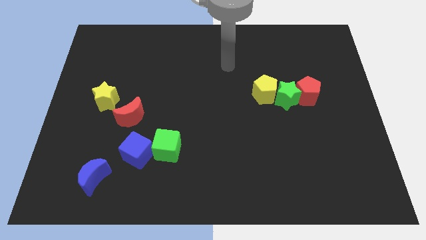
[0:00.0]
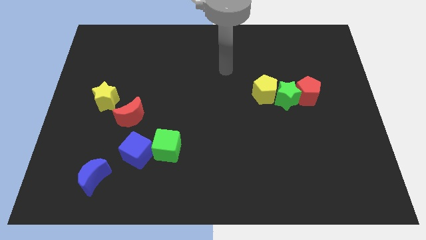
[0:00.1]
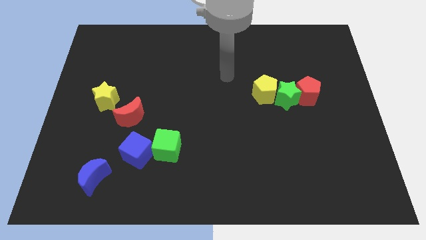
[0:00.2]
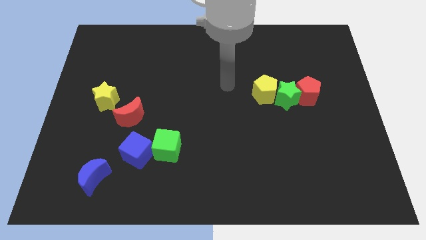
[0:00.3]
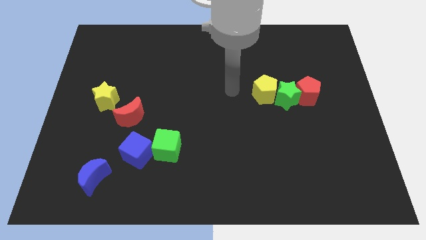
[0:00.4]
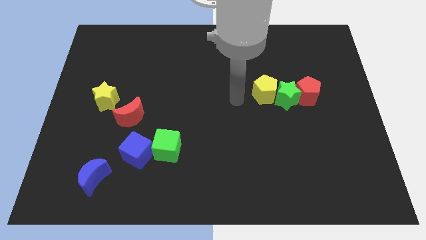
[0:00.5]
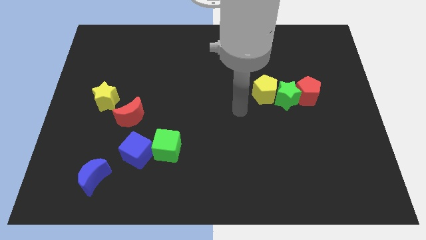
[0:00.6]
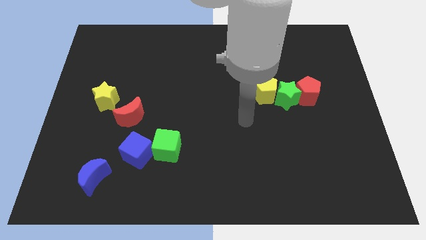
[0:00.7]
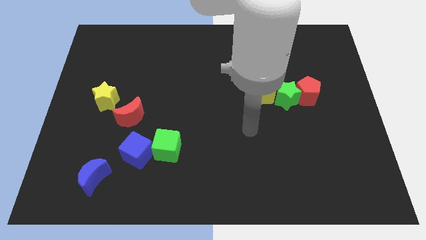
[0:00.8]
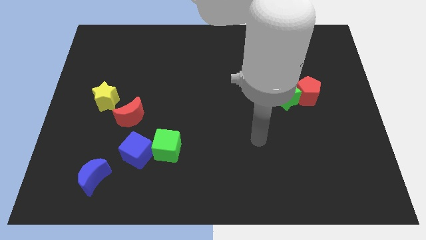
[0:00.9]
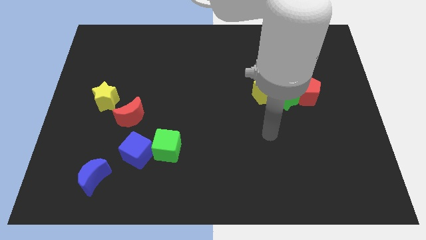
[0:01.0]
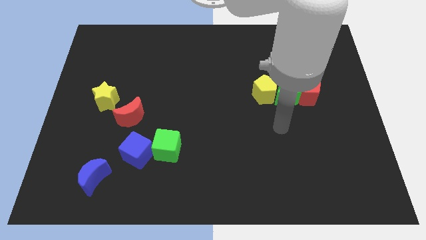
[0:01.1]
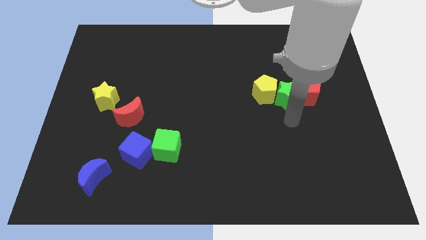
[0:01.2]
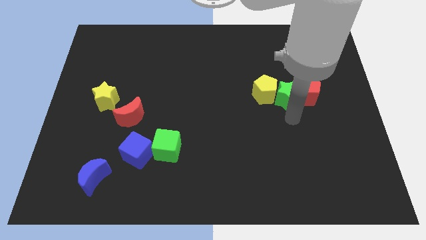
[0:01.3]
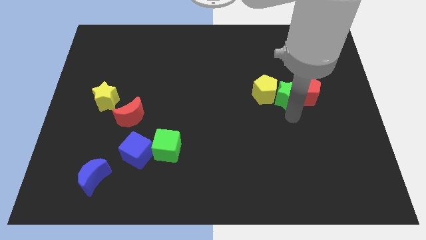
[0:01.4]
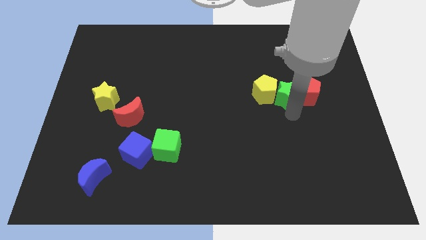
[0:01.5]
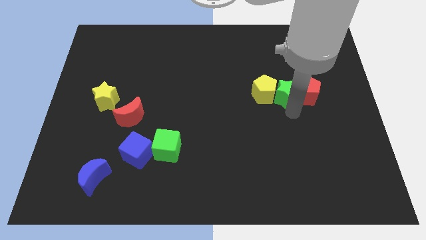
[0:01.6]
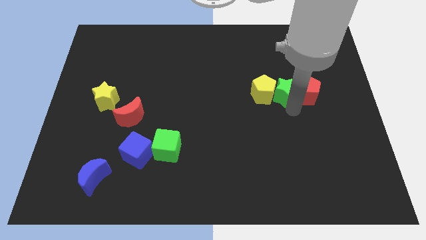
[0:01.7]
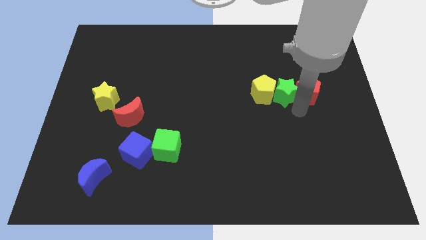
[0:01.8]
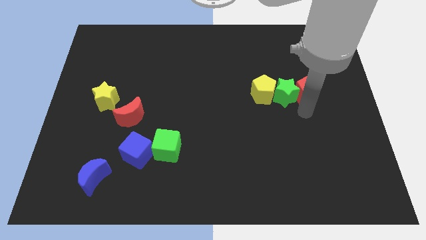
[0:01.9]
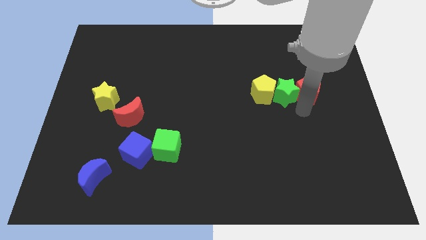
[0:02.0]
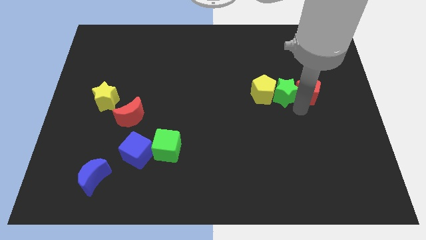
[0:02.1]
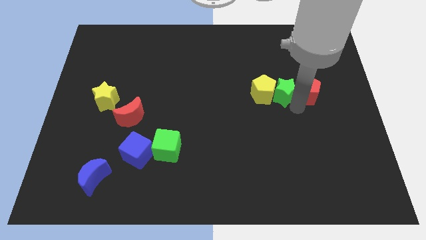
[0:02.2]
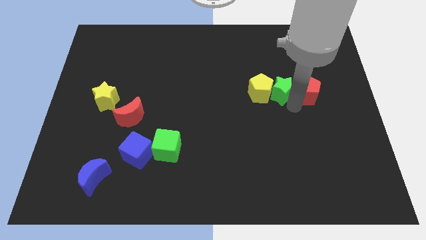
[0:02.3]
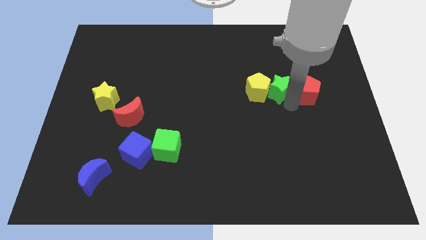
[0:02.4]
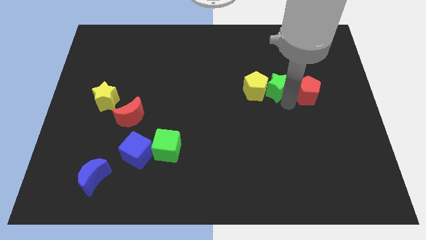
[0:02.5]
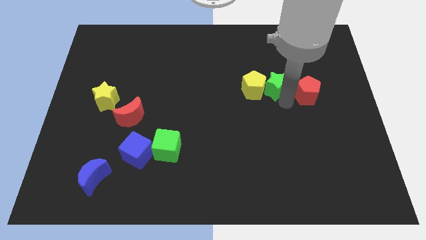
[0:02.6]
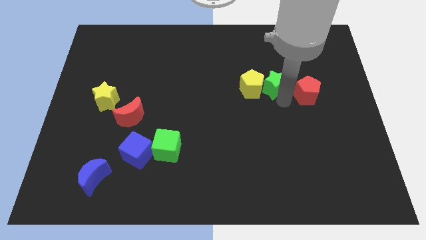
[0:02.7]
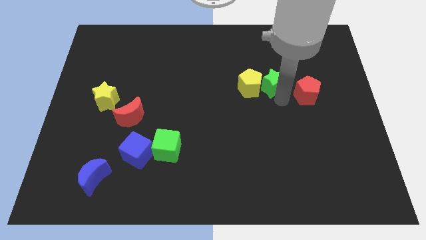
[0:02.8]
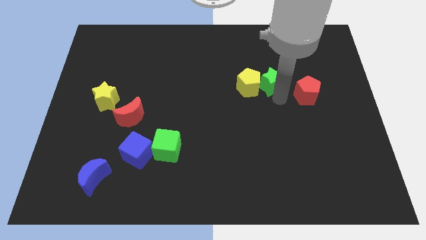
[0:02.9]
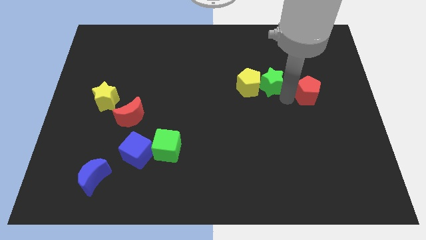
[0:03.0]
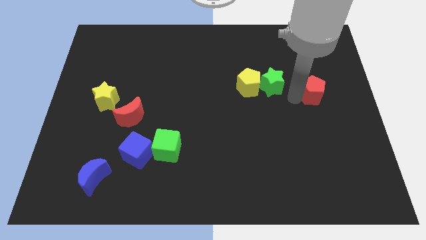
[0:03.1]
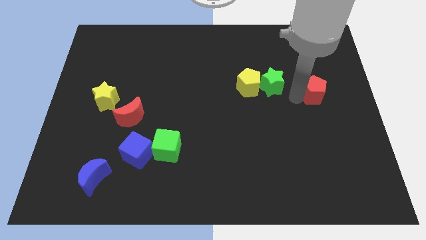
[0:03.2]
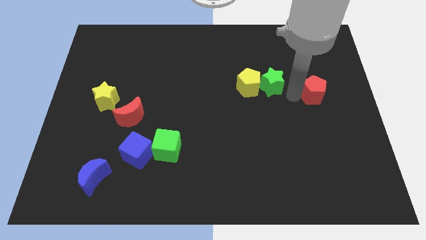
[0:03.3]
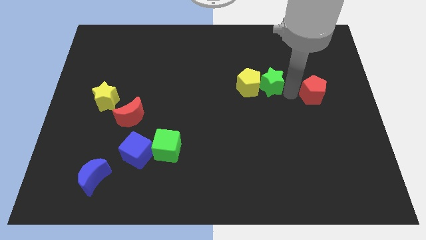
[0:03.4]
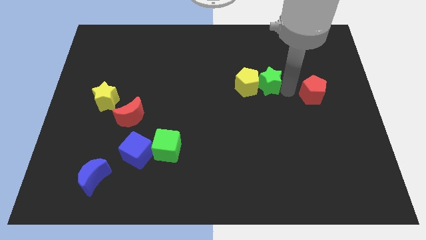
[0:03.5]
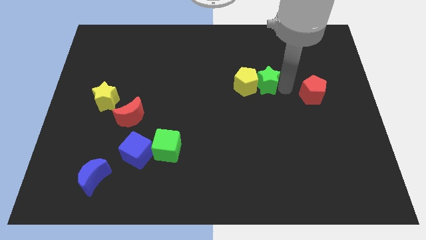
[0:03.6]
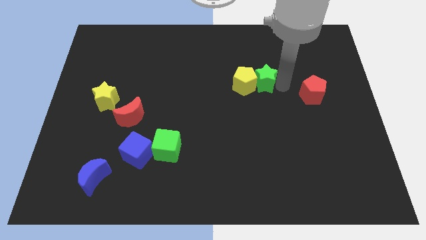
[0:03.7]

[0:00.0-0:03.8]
move the green star somewhat upwards and left

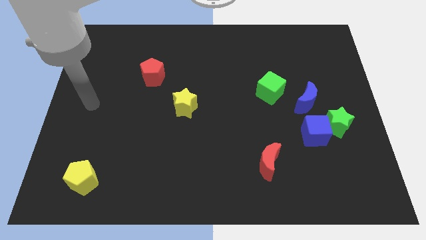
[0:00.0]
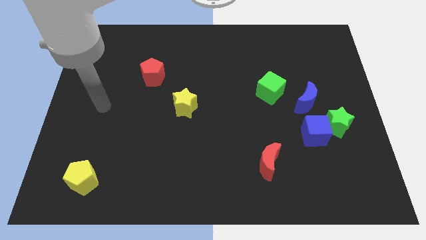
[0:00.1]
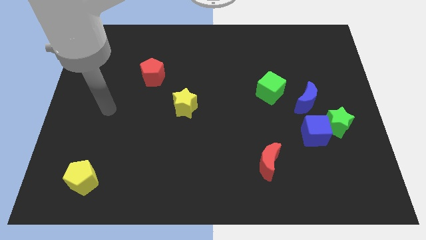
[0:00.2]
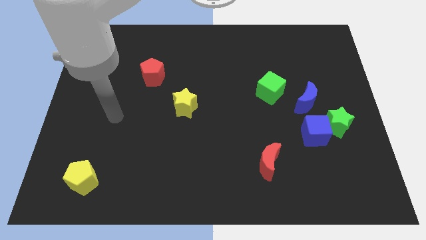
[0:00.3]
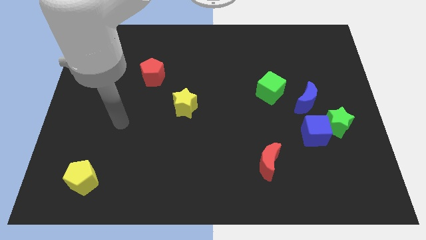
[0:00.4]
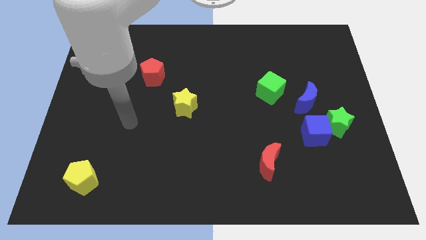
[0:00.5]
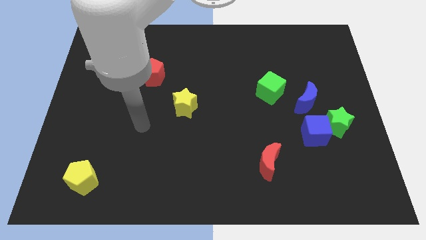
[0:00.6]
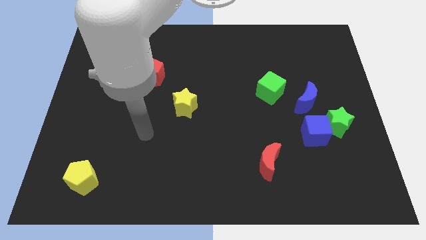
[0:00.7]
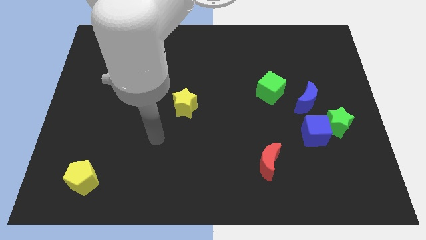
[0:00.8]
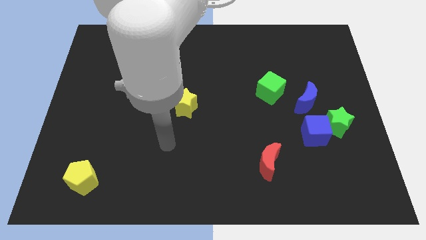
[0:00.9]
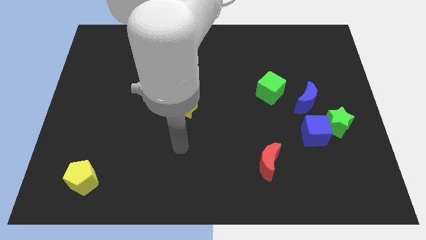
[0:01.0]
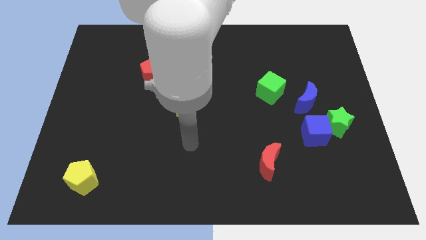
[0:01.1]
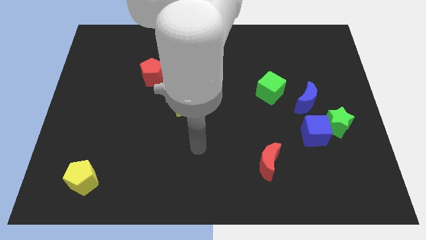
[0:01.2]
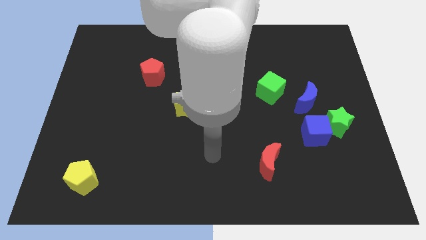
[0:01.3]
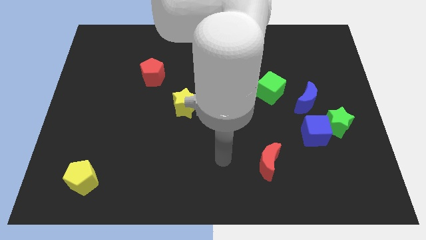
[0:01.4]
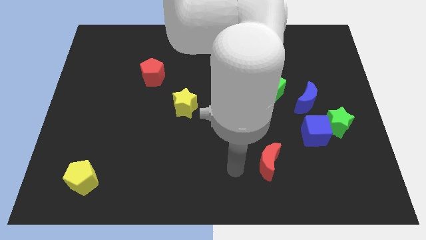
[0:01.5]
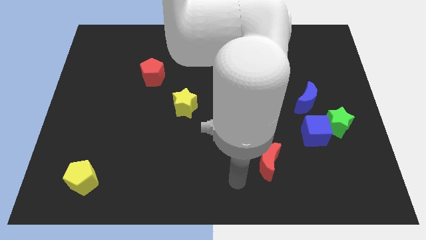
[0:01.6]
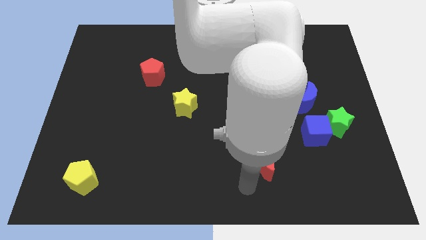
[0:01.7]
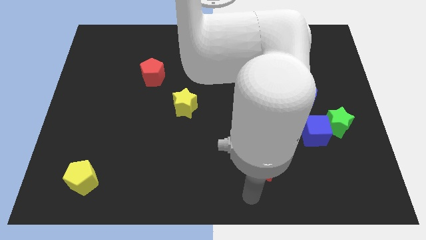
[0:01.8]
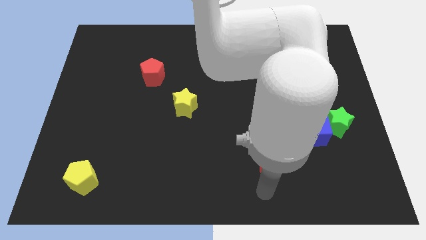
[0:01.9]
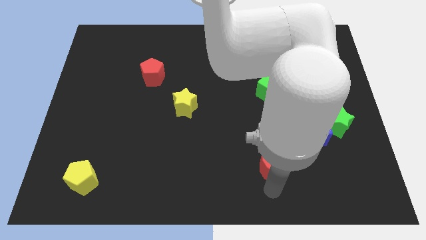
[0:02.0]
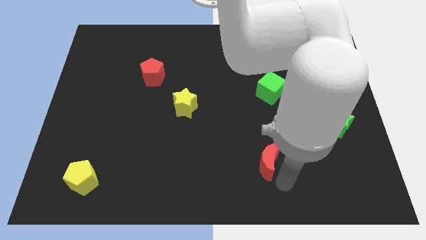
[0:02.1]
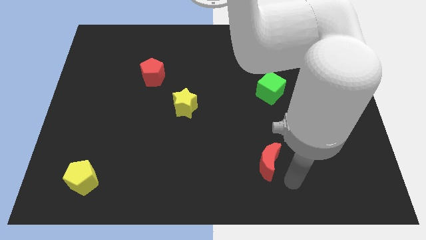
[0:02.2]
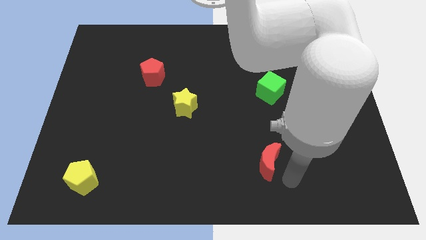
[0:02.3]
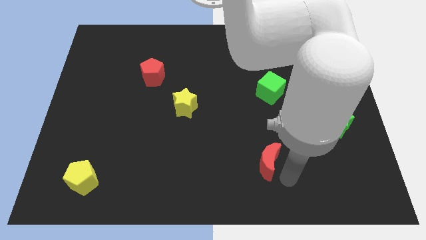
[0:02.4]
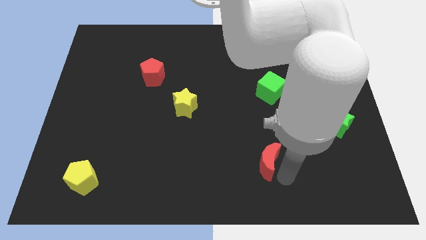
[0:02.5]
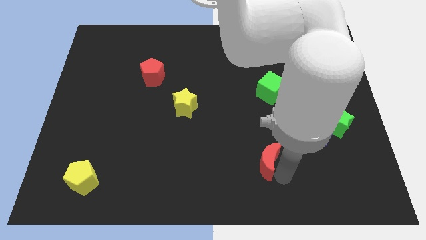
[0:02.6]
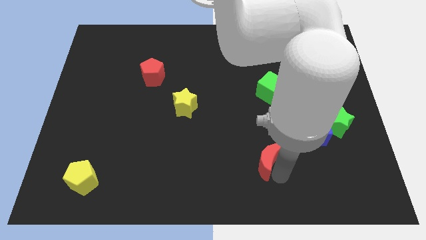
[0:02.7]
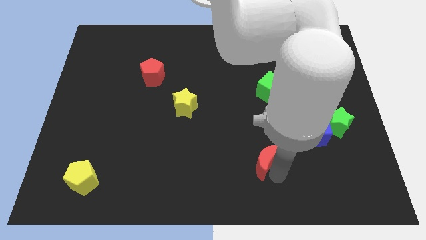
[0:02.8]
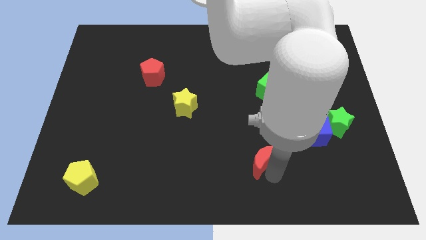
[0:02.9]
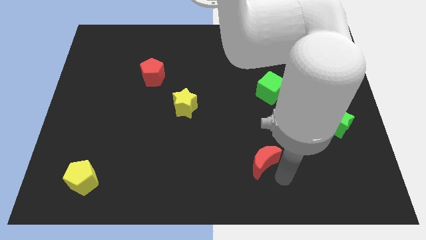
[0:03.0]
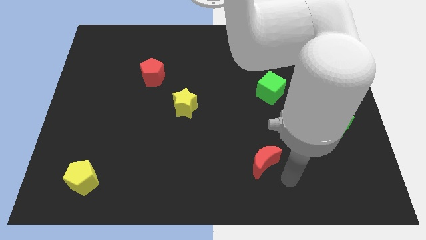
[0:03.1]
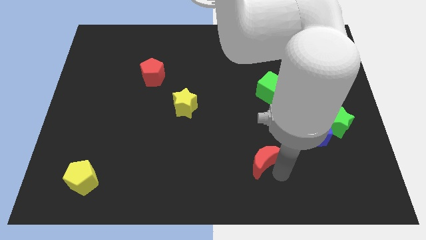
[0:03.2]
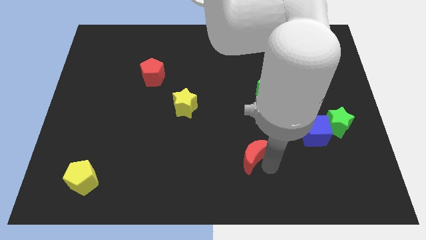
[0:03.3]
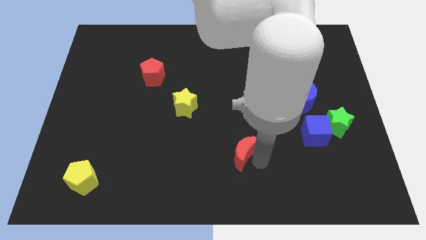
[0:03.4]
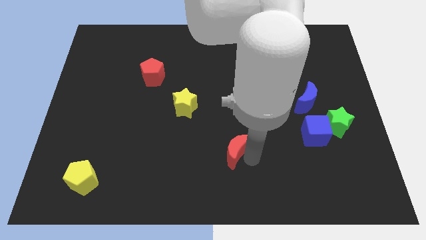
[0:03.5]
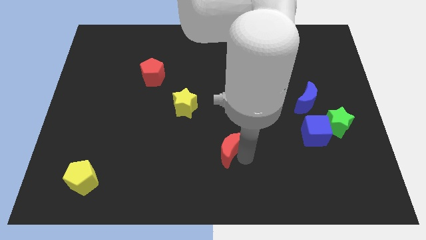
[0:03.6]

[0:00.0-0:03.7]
slightly push the red moon diagonally upwards and to the left

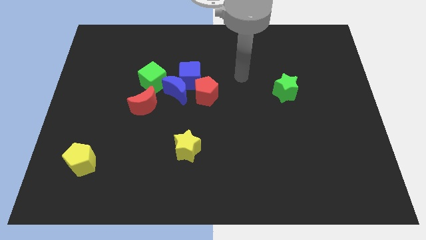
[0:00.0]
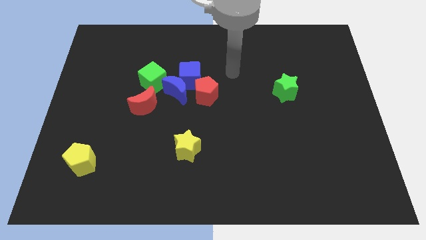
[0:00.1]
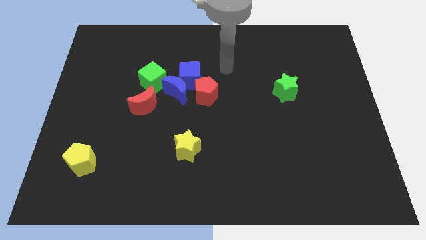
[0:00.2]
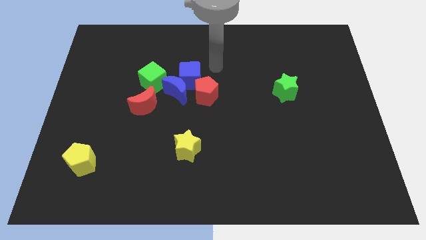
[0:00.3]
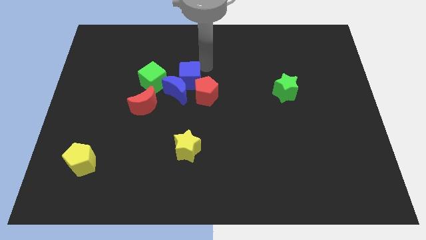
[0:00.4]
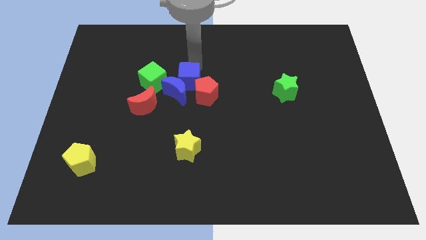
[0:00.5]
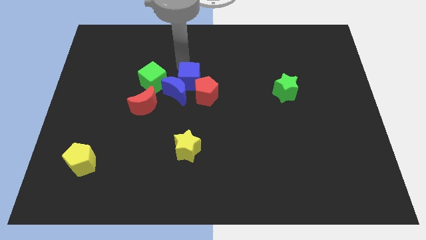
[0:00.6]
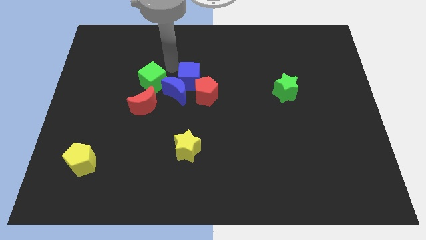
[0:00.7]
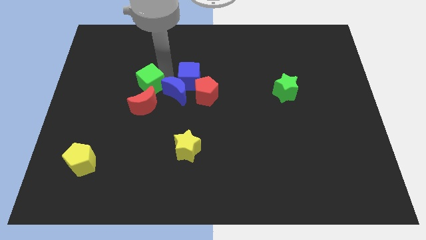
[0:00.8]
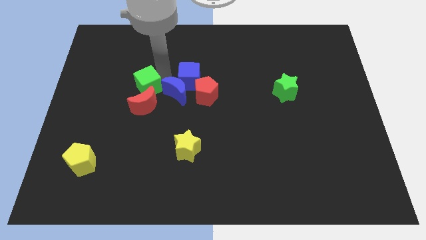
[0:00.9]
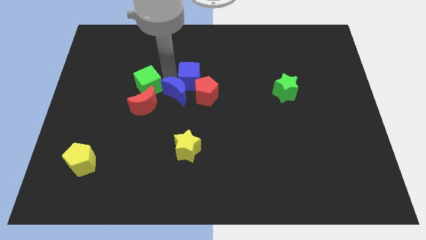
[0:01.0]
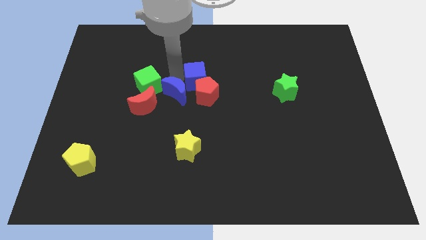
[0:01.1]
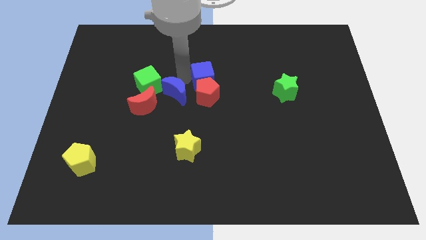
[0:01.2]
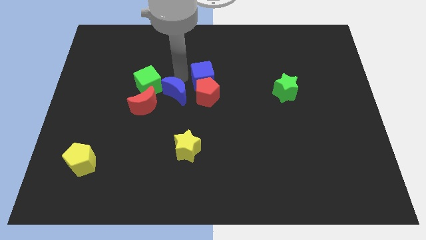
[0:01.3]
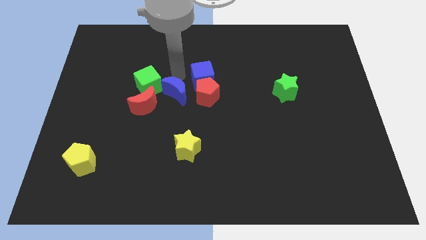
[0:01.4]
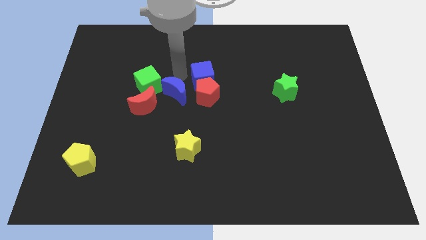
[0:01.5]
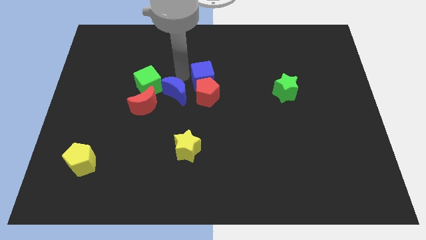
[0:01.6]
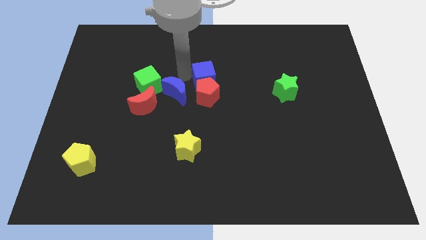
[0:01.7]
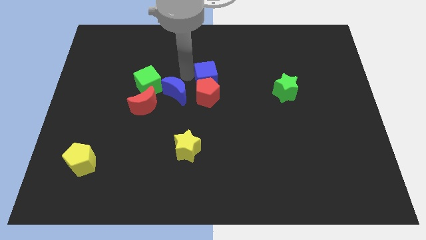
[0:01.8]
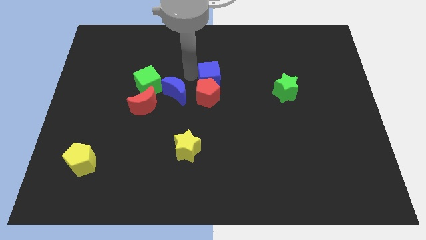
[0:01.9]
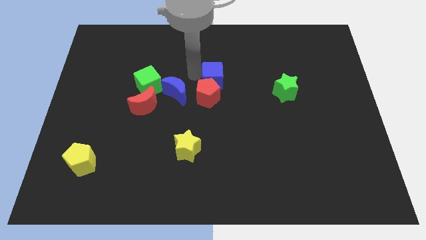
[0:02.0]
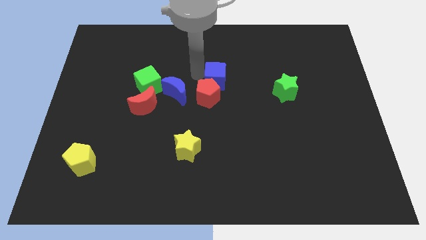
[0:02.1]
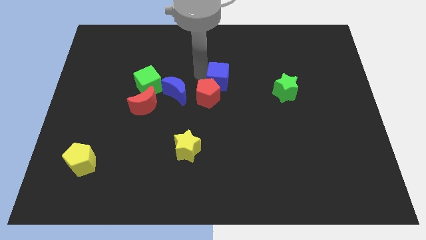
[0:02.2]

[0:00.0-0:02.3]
move the blue cube a little bit right
